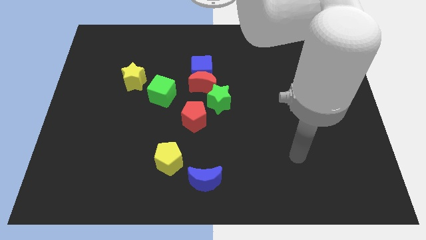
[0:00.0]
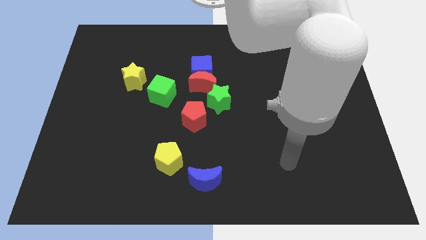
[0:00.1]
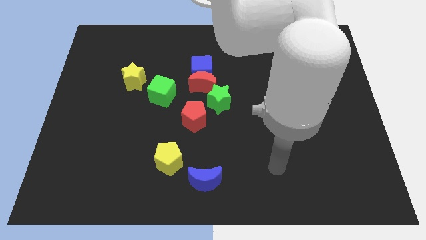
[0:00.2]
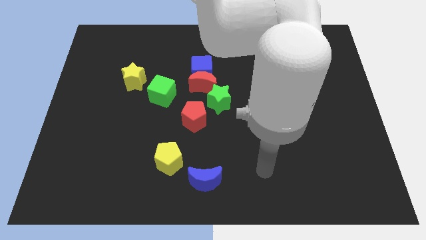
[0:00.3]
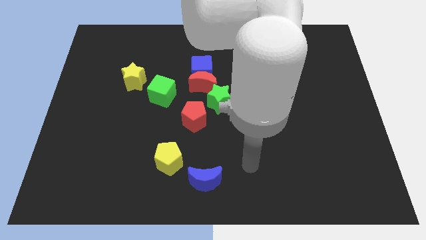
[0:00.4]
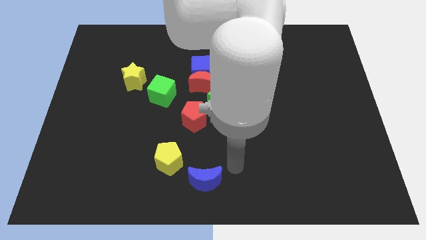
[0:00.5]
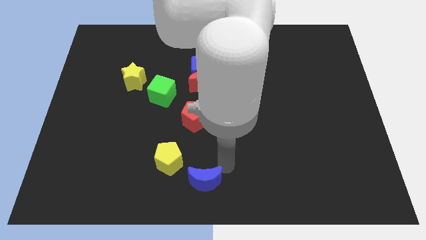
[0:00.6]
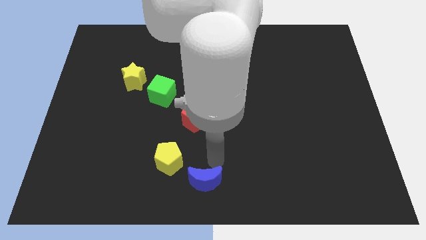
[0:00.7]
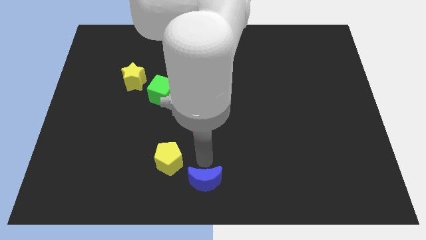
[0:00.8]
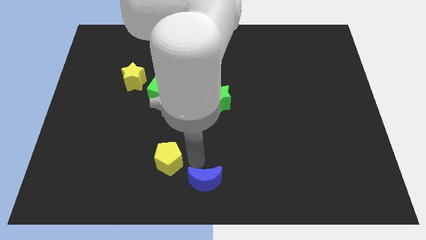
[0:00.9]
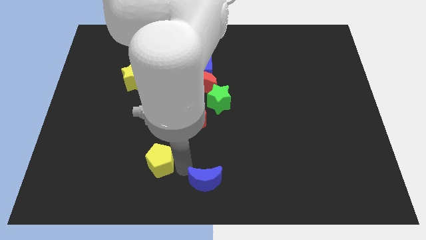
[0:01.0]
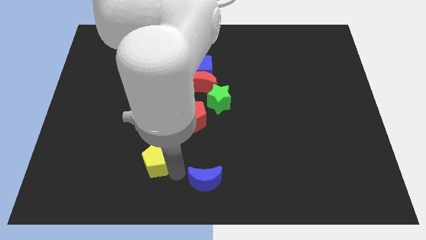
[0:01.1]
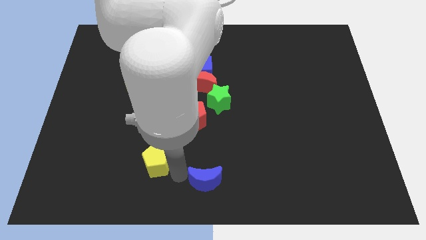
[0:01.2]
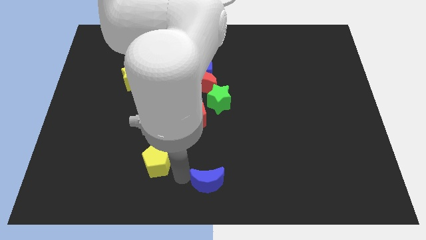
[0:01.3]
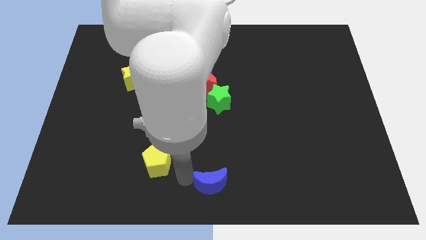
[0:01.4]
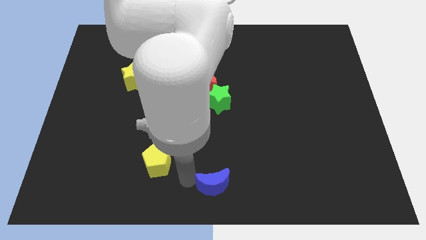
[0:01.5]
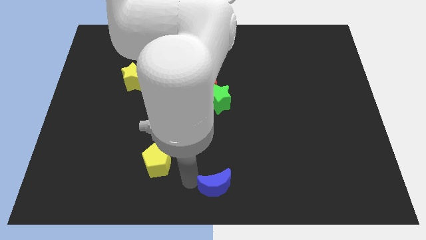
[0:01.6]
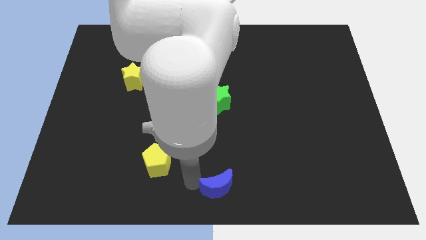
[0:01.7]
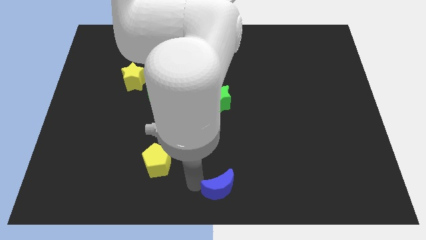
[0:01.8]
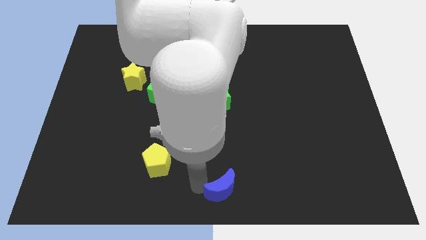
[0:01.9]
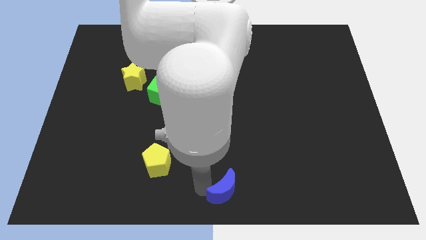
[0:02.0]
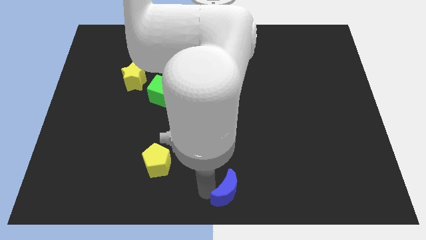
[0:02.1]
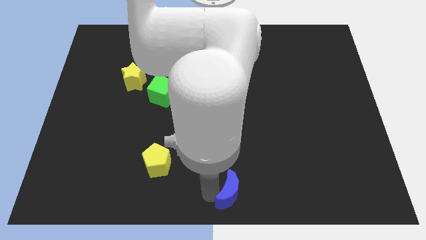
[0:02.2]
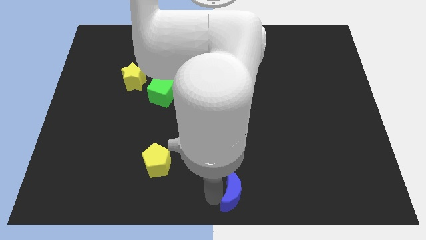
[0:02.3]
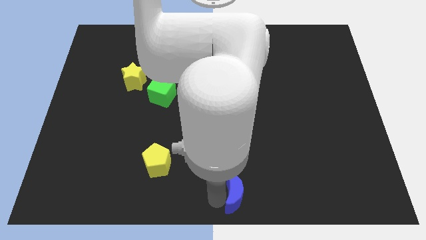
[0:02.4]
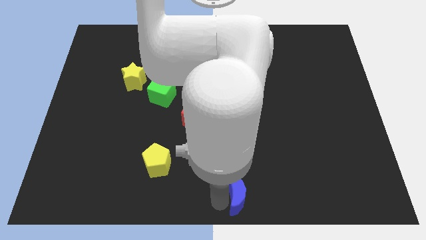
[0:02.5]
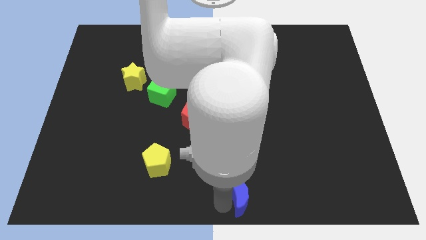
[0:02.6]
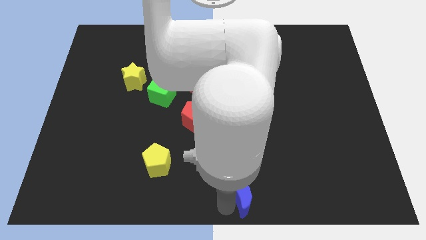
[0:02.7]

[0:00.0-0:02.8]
push the blue moon to the right a little

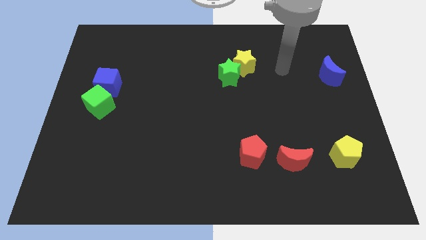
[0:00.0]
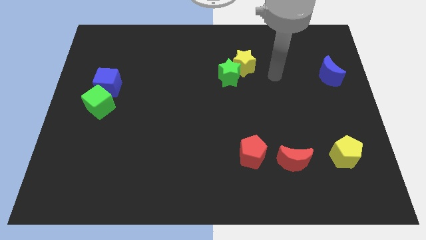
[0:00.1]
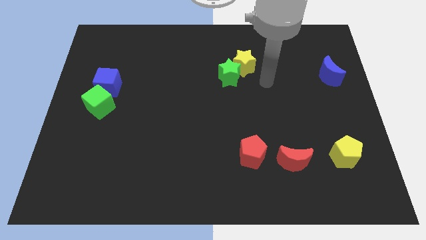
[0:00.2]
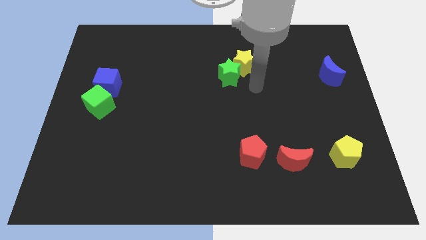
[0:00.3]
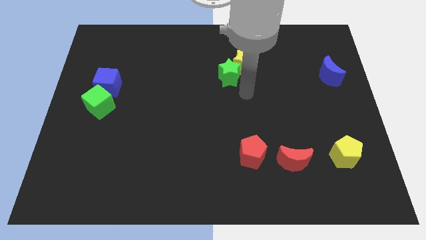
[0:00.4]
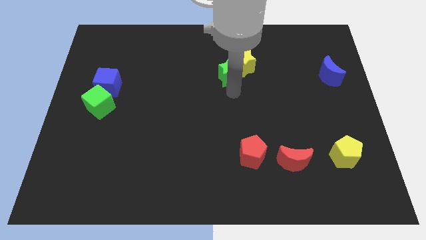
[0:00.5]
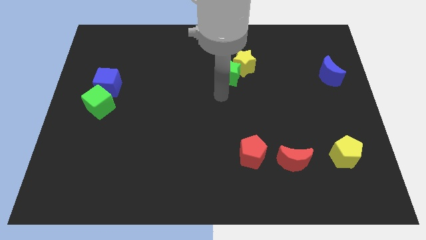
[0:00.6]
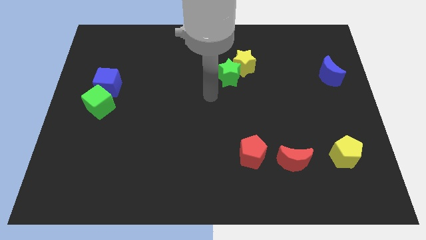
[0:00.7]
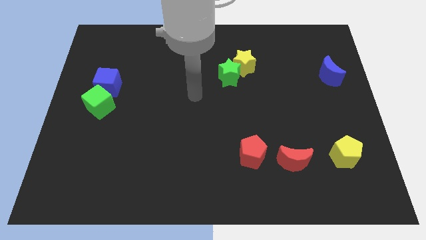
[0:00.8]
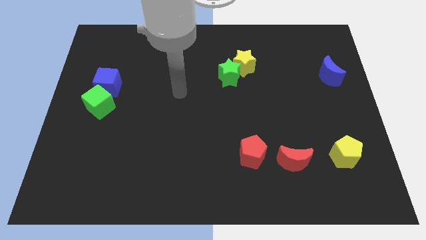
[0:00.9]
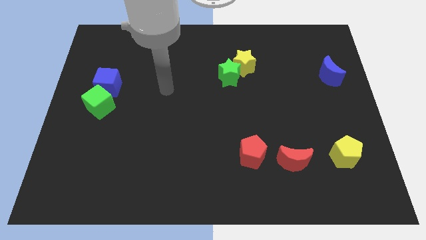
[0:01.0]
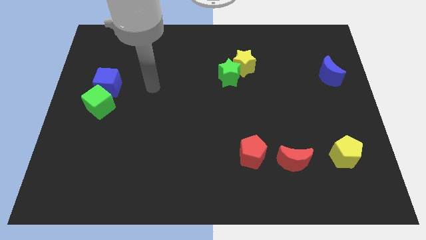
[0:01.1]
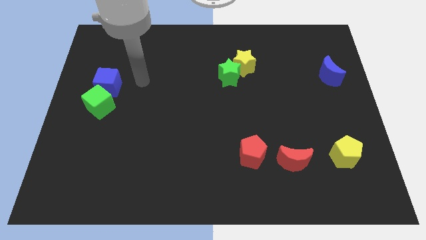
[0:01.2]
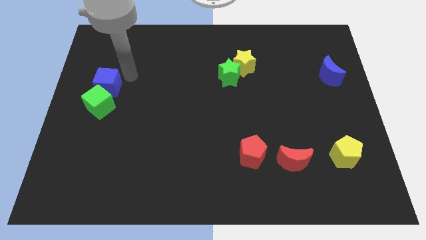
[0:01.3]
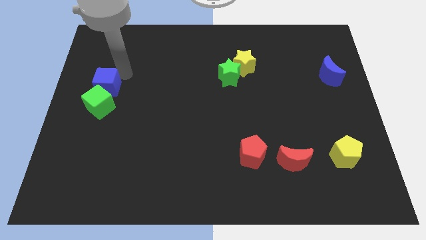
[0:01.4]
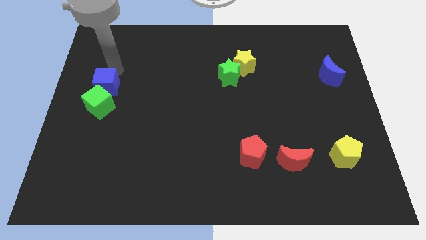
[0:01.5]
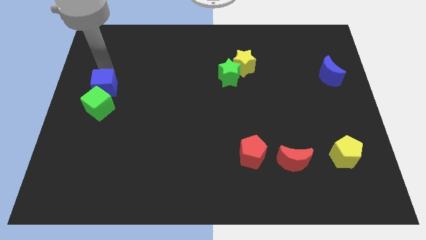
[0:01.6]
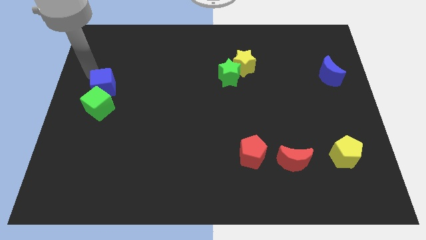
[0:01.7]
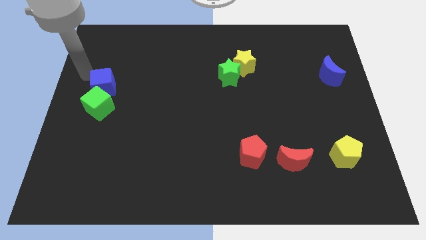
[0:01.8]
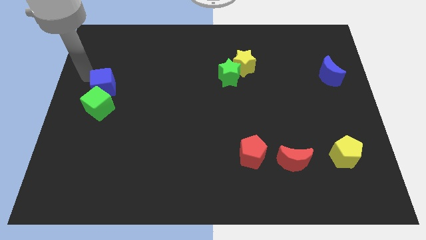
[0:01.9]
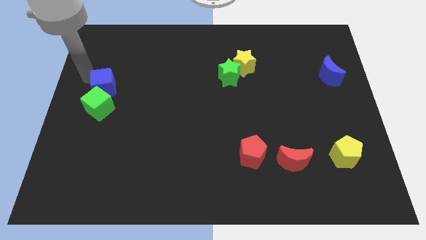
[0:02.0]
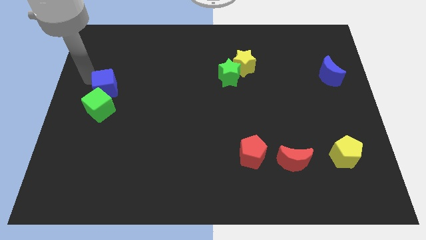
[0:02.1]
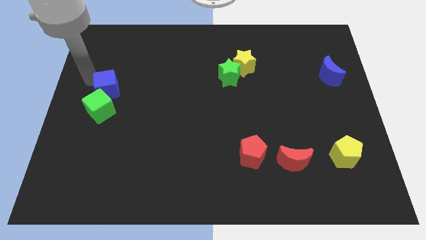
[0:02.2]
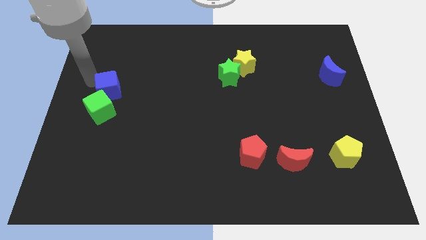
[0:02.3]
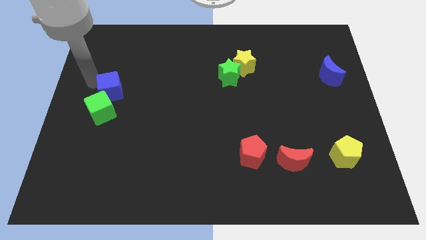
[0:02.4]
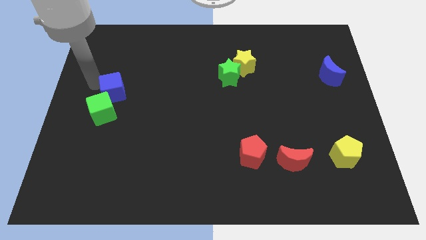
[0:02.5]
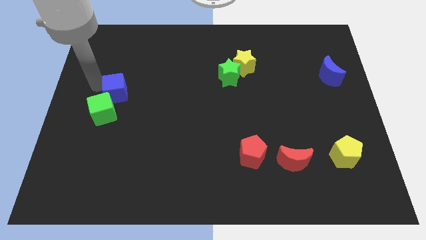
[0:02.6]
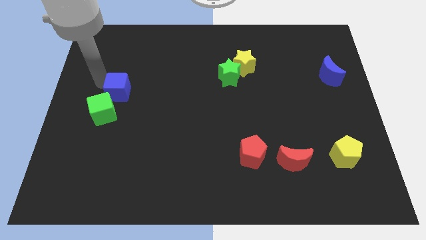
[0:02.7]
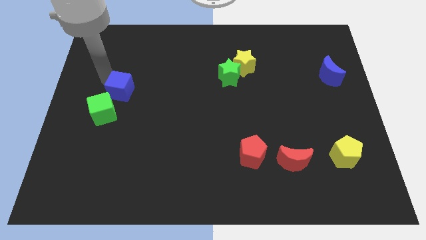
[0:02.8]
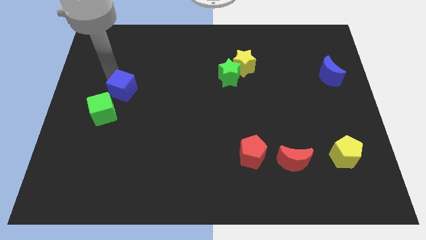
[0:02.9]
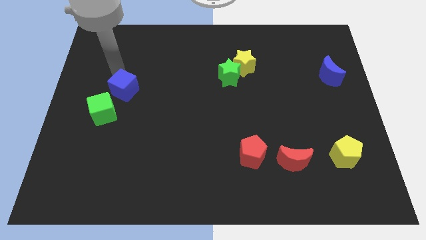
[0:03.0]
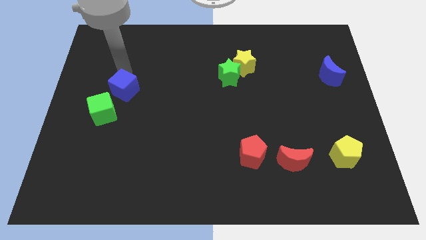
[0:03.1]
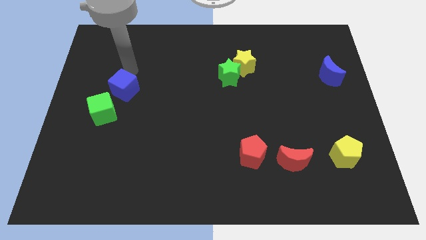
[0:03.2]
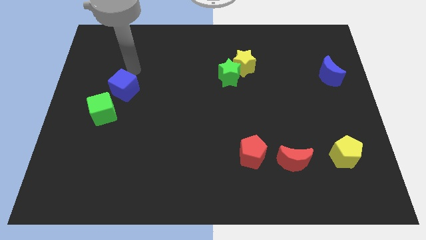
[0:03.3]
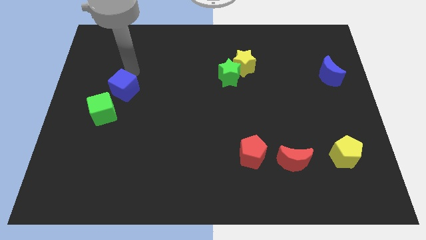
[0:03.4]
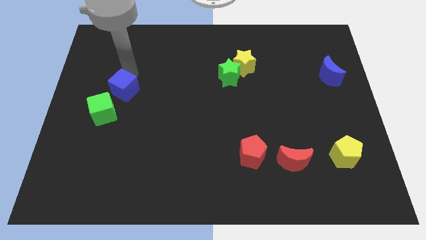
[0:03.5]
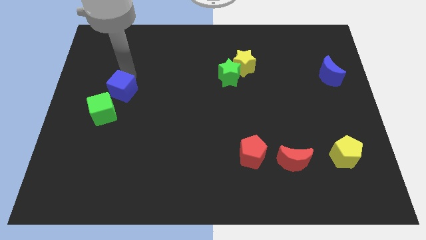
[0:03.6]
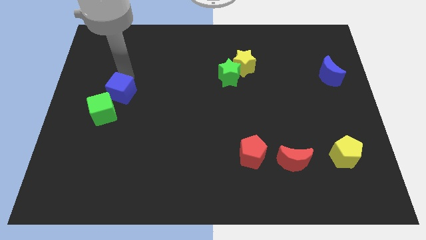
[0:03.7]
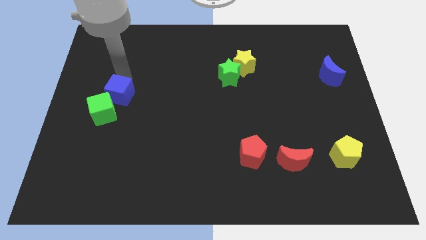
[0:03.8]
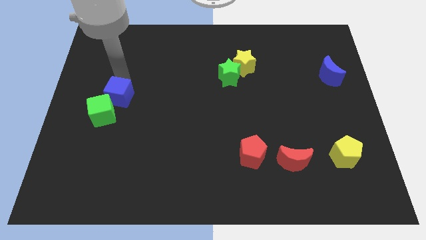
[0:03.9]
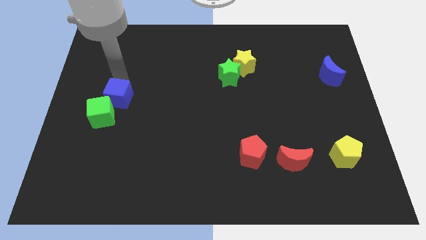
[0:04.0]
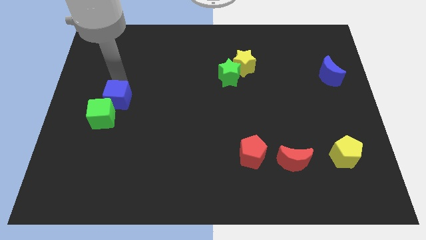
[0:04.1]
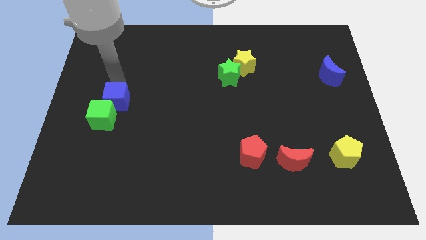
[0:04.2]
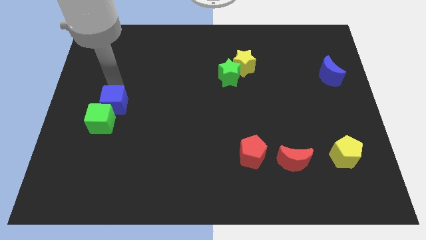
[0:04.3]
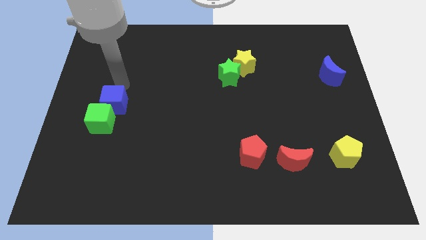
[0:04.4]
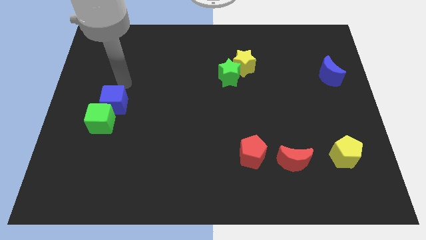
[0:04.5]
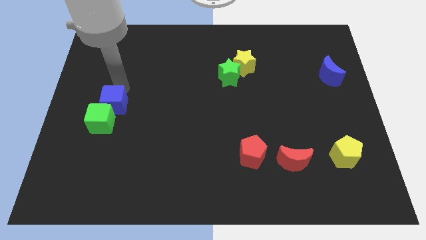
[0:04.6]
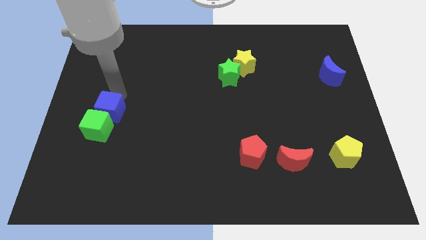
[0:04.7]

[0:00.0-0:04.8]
push the blue cube a little downwards

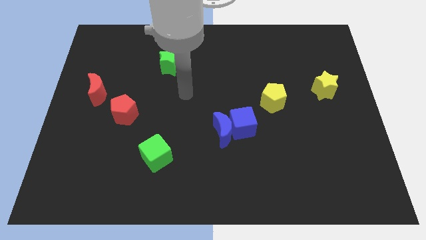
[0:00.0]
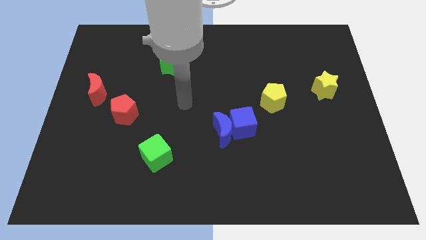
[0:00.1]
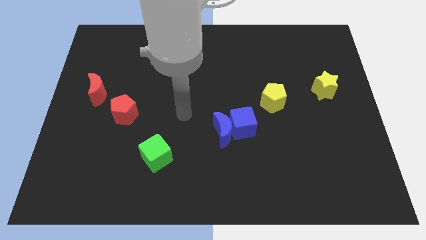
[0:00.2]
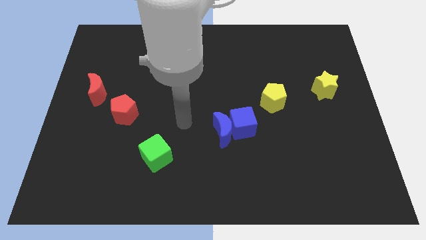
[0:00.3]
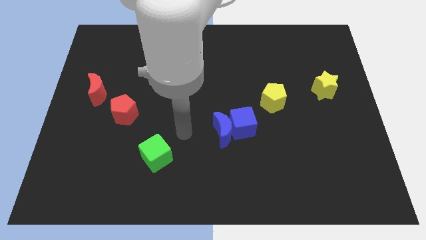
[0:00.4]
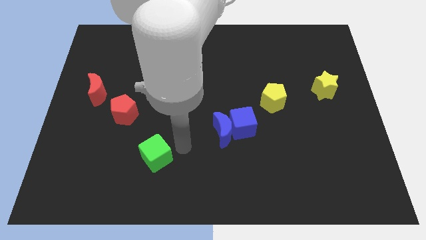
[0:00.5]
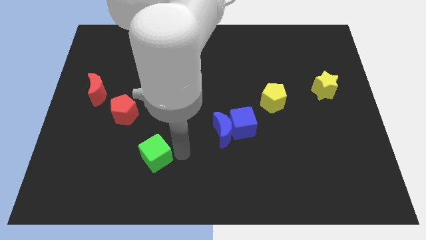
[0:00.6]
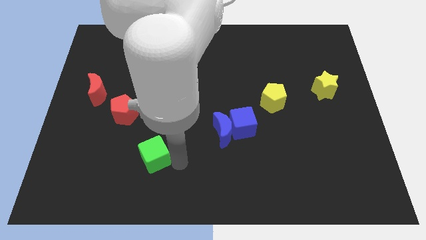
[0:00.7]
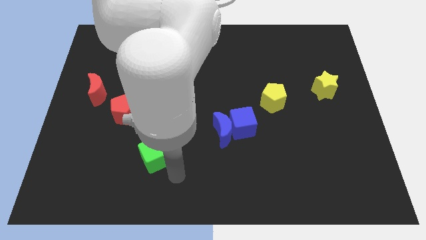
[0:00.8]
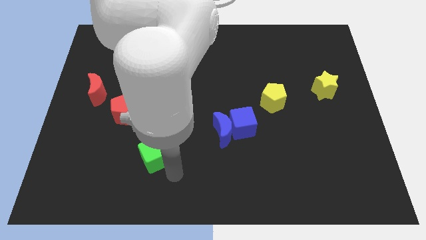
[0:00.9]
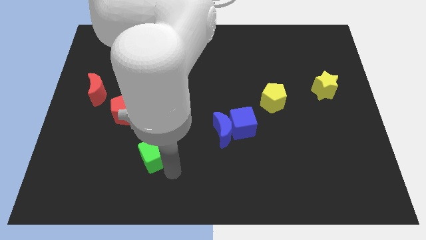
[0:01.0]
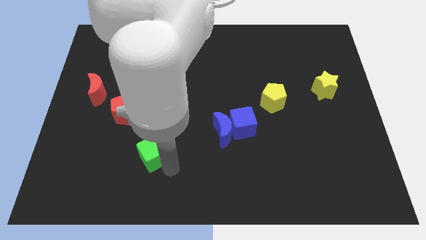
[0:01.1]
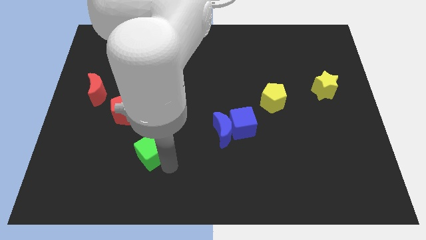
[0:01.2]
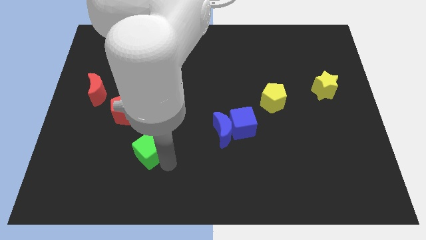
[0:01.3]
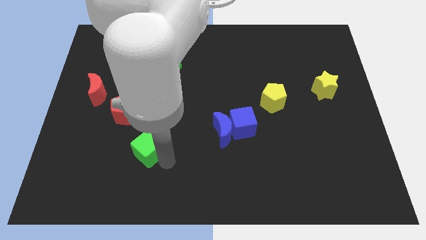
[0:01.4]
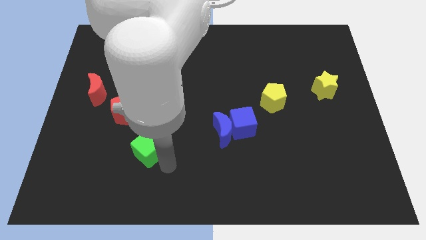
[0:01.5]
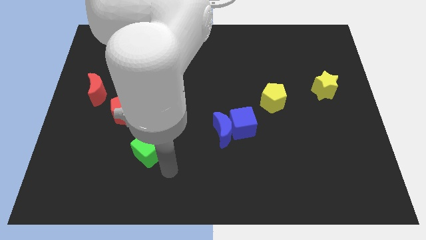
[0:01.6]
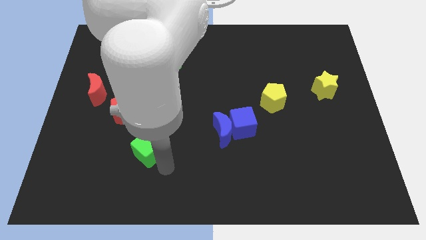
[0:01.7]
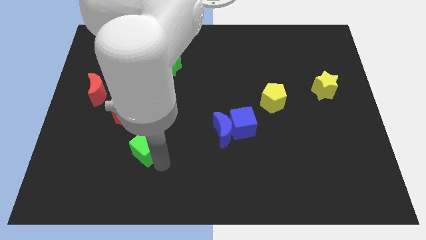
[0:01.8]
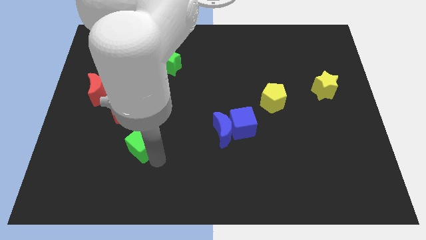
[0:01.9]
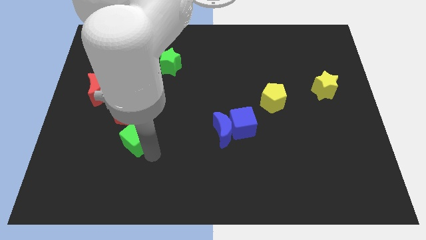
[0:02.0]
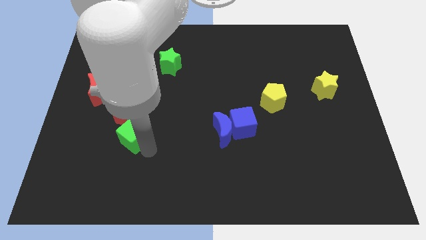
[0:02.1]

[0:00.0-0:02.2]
slightly move the green cube upwards and then left
